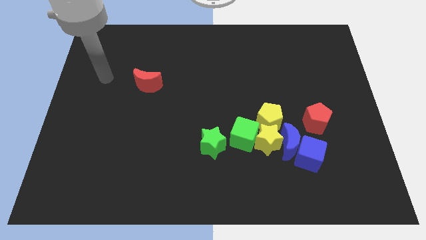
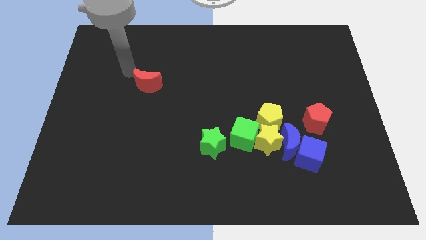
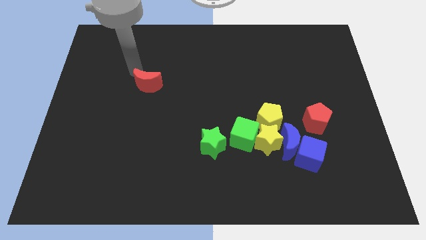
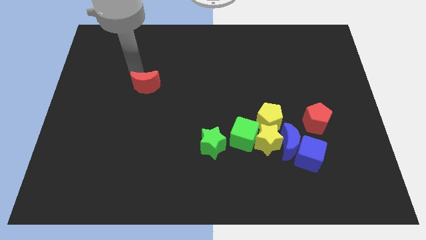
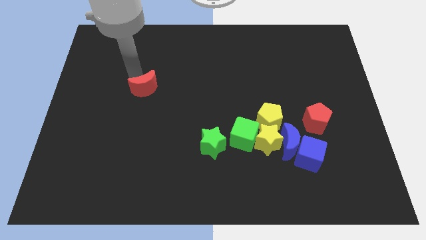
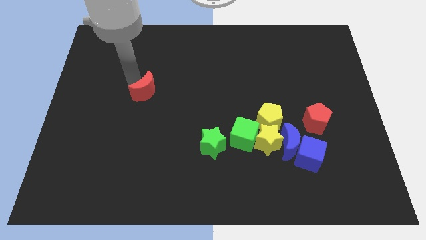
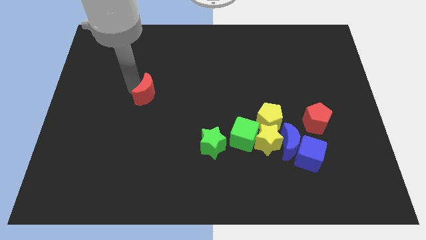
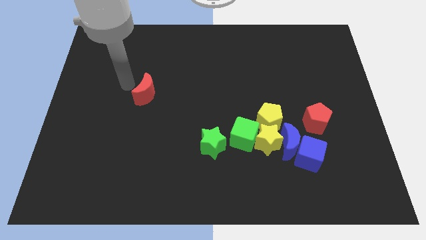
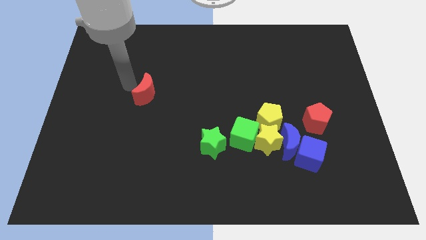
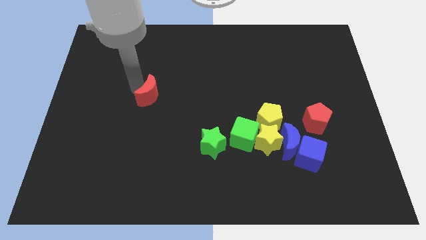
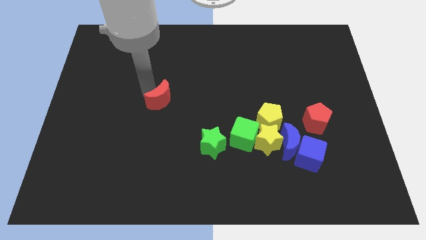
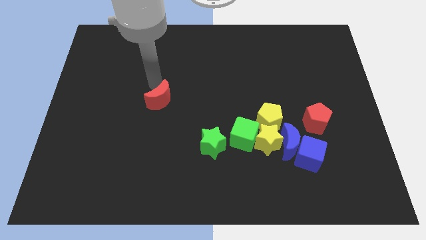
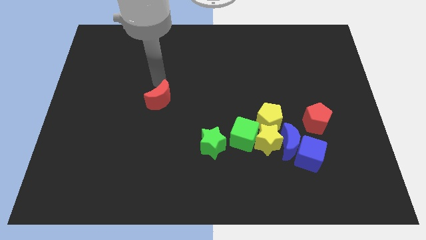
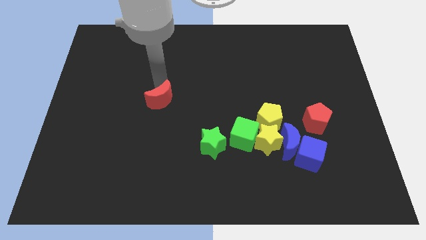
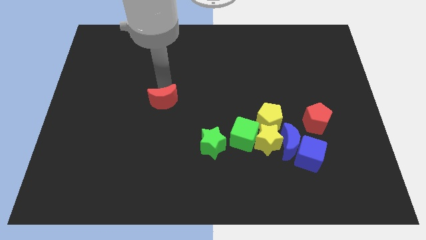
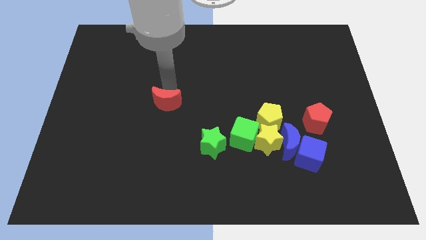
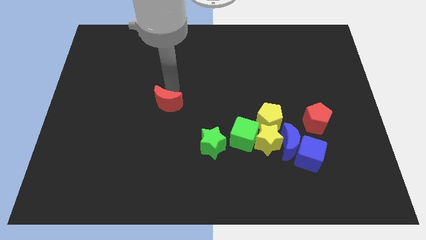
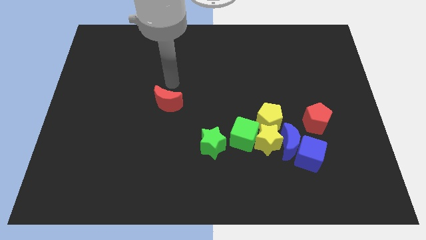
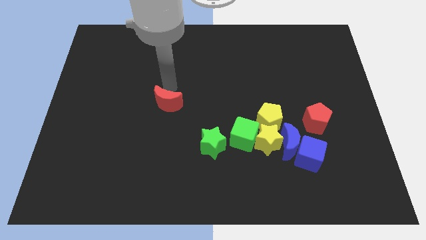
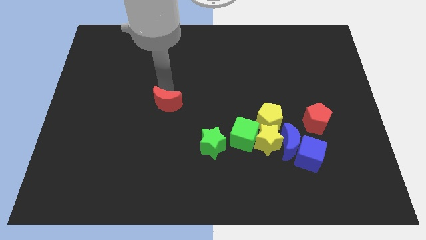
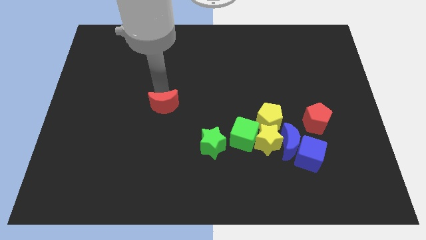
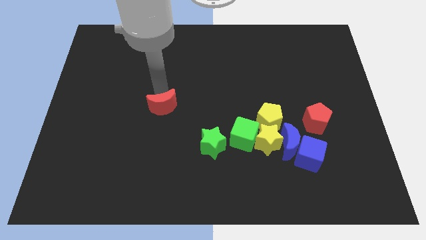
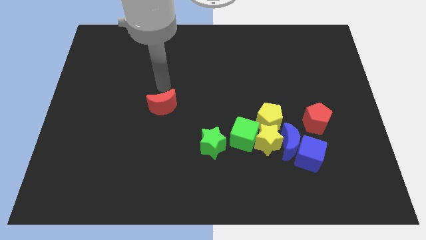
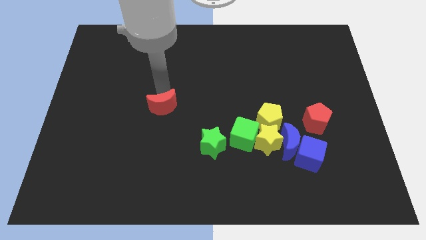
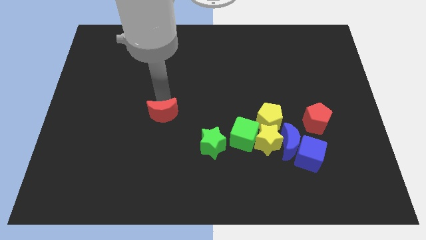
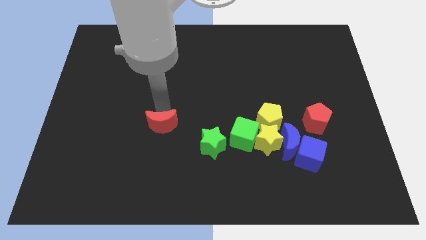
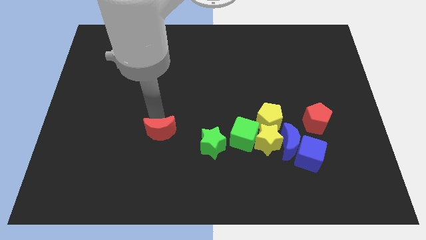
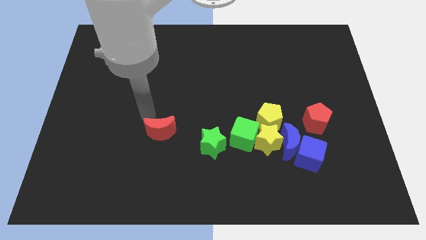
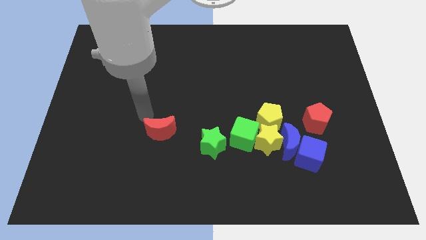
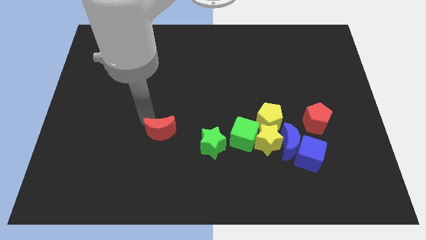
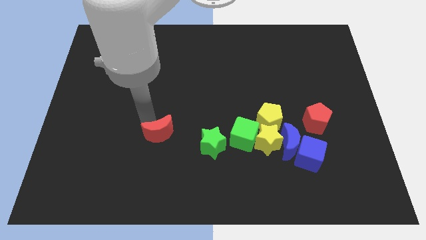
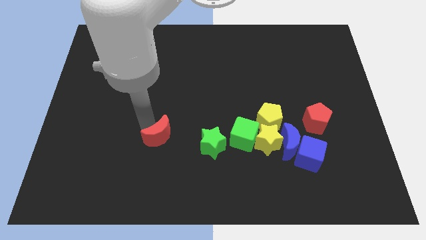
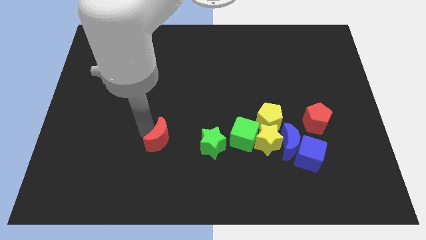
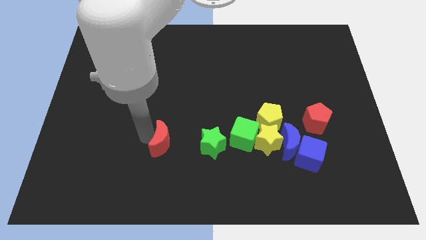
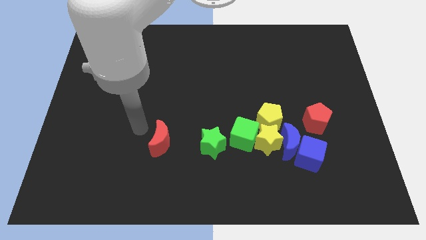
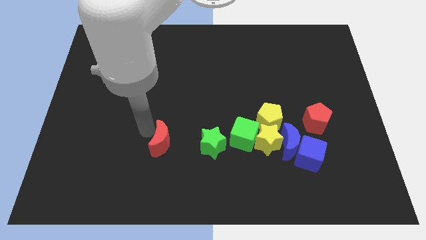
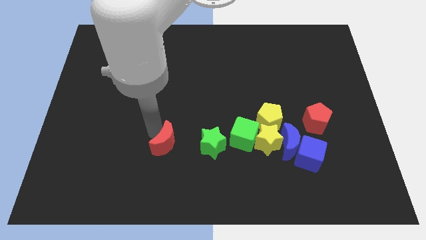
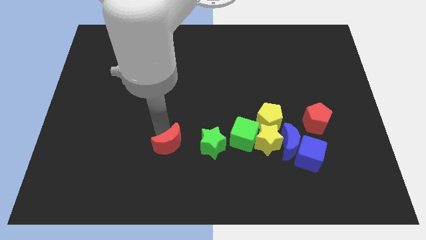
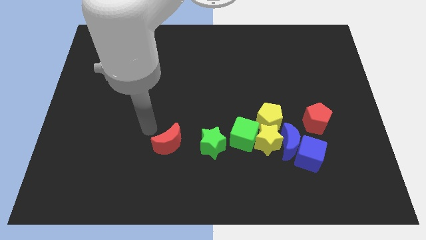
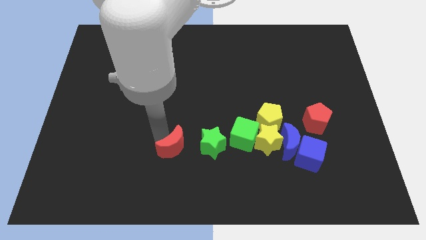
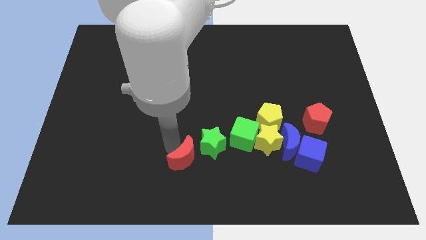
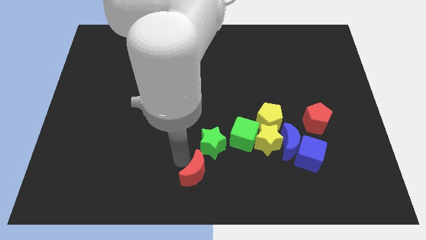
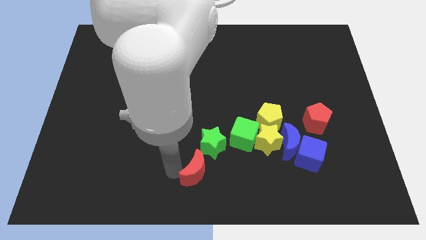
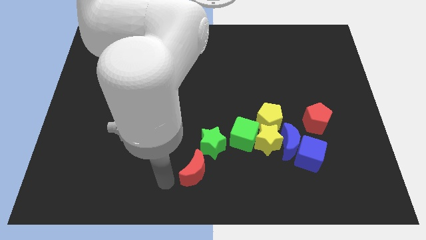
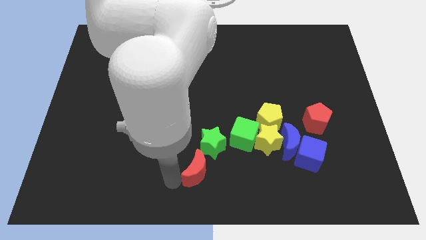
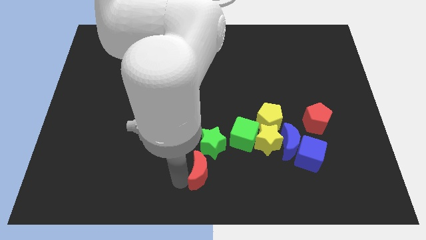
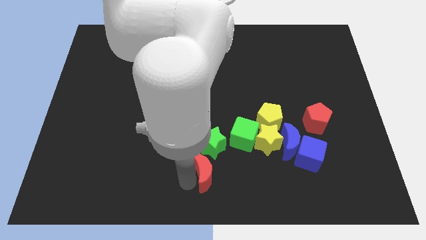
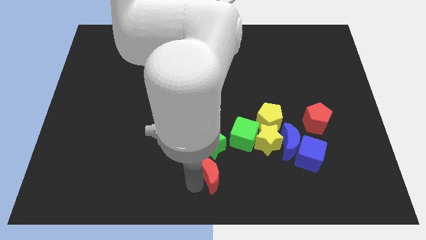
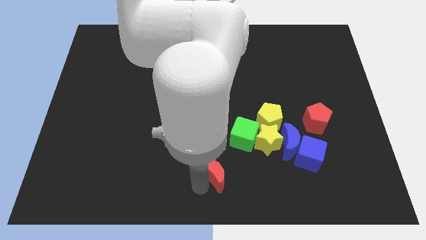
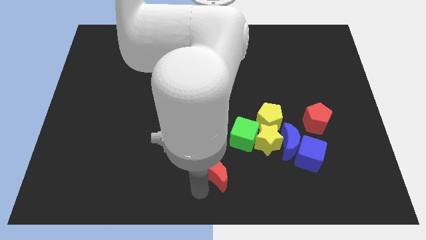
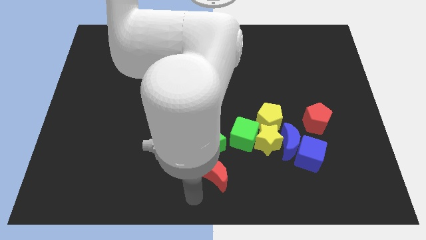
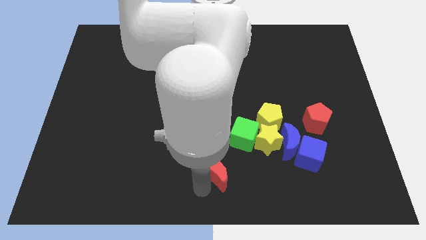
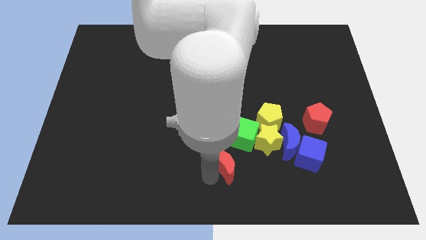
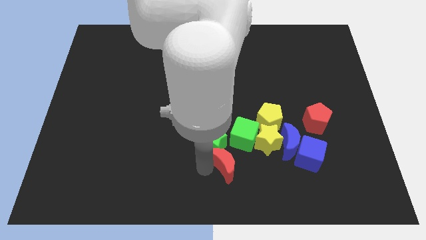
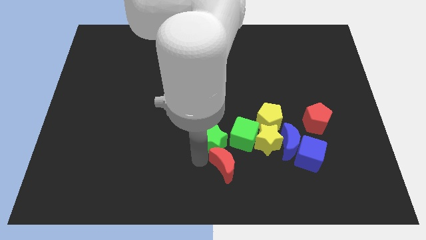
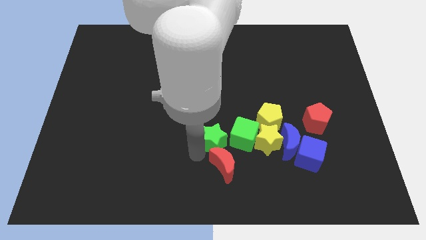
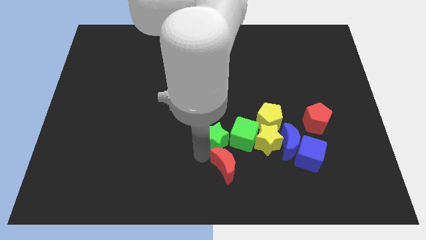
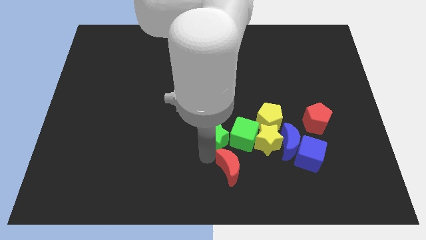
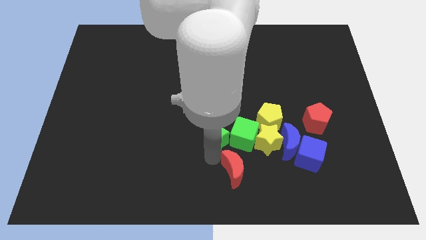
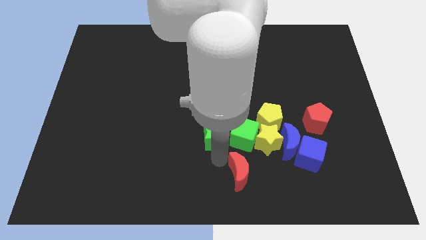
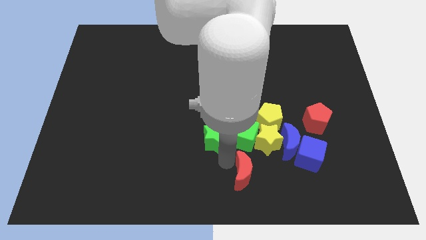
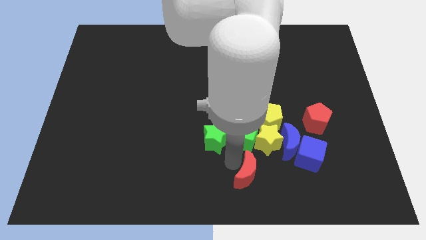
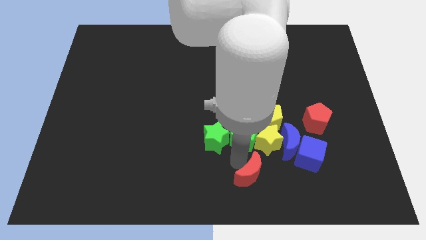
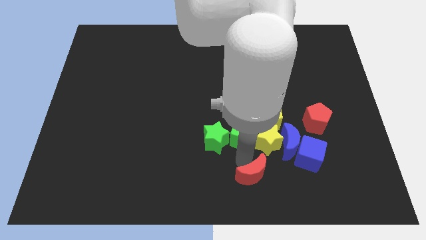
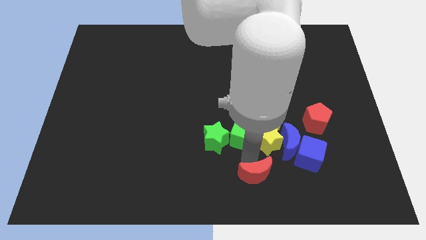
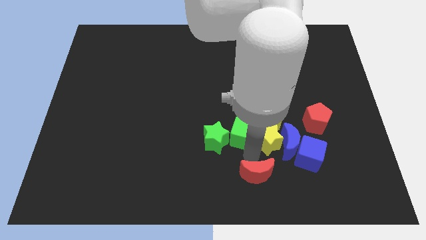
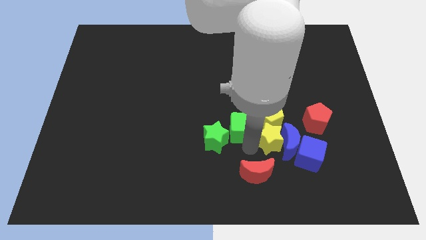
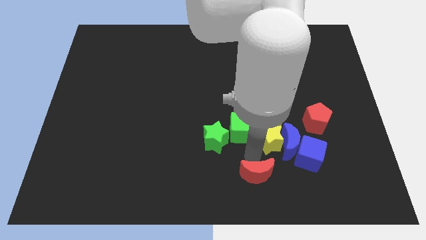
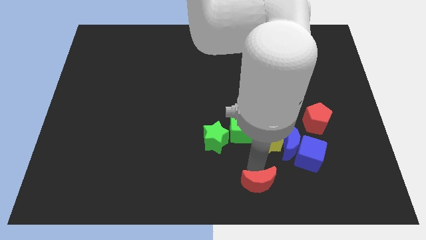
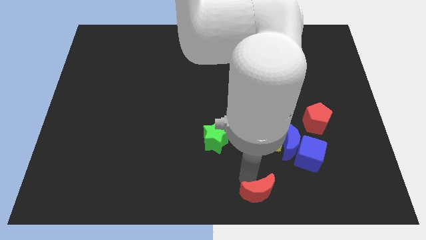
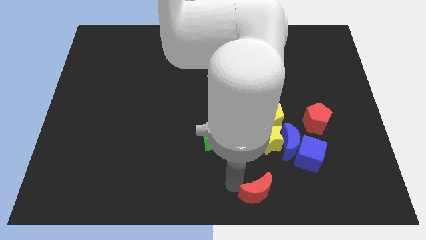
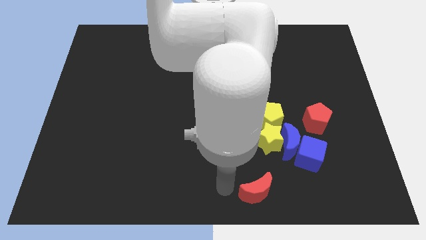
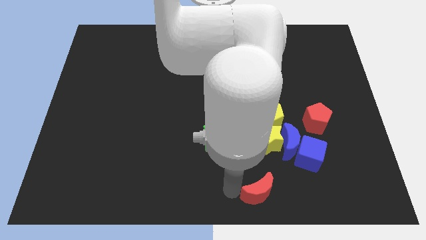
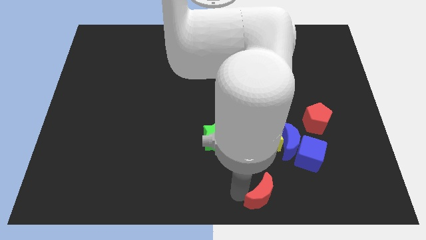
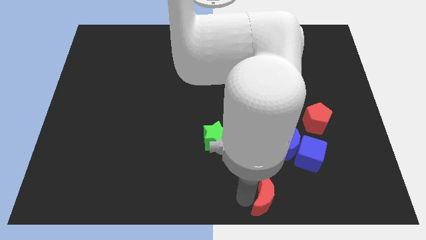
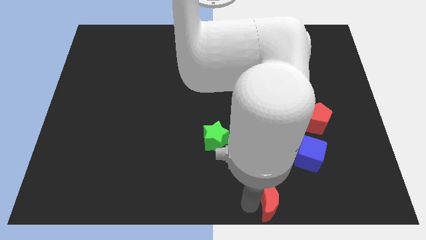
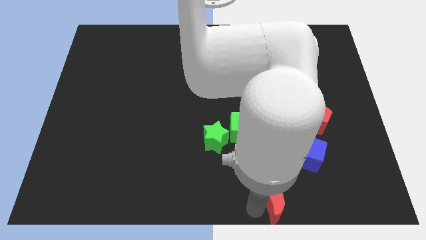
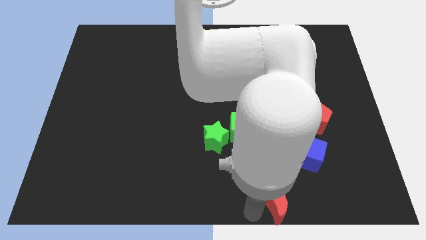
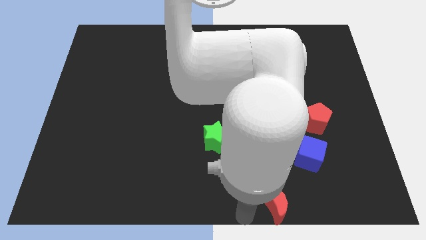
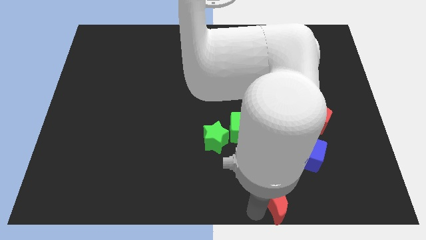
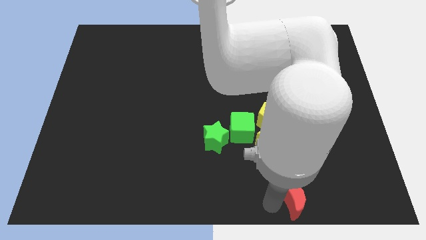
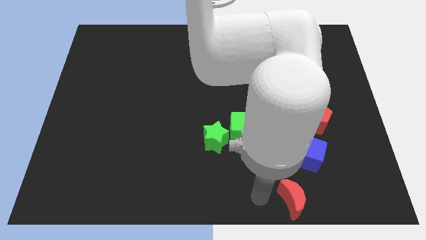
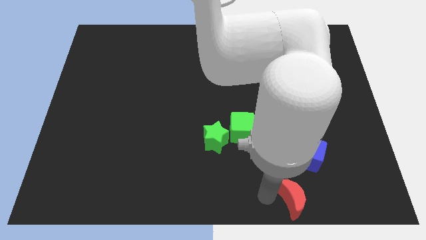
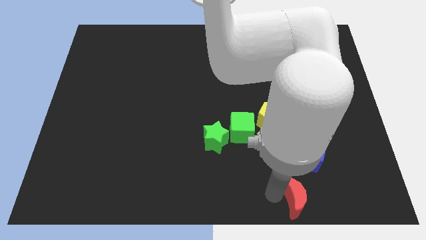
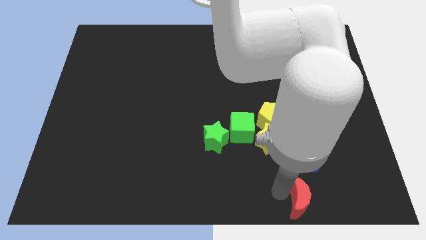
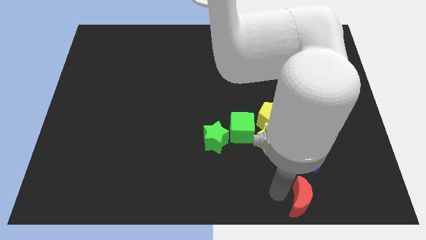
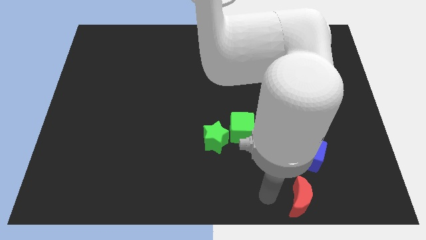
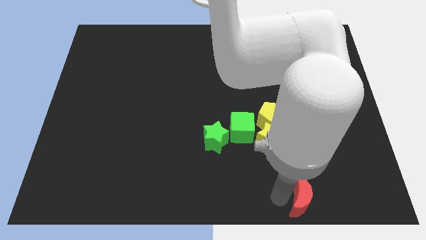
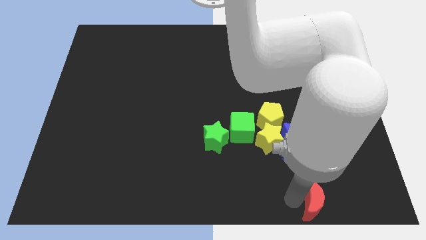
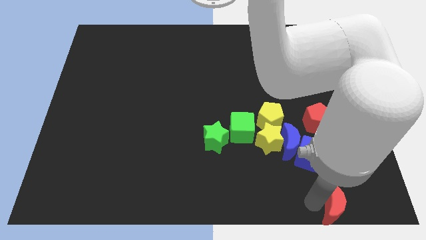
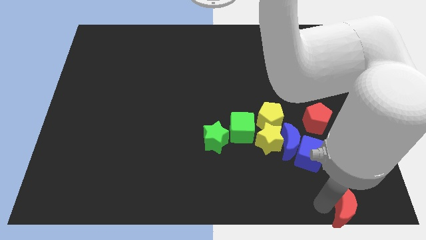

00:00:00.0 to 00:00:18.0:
move the red moon to the bottom right
